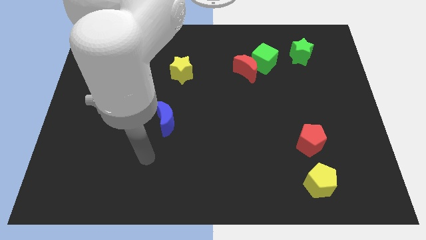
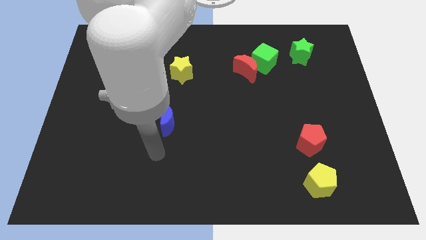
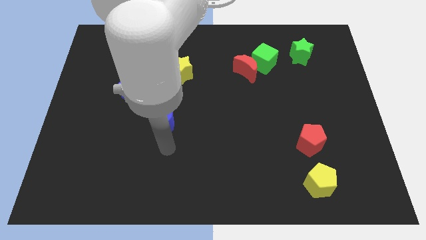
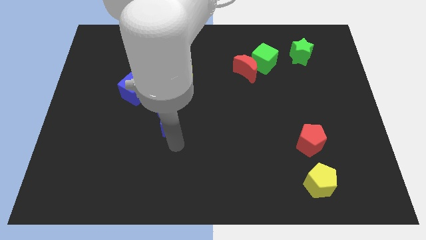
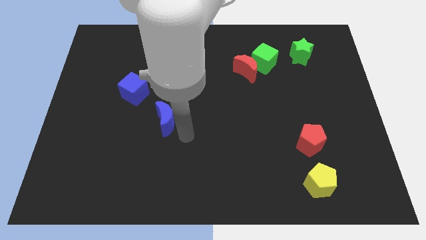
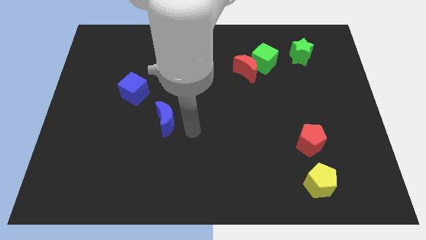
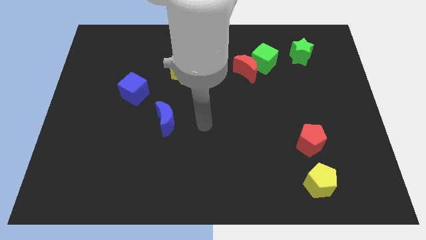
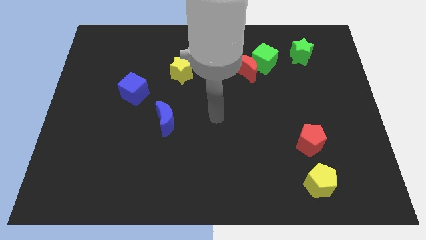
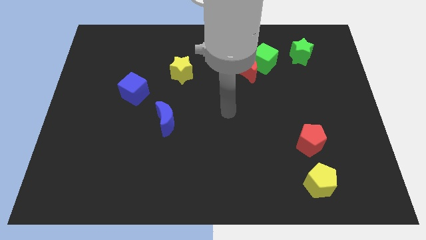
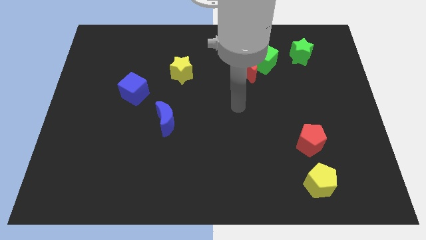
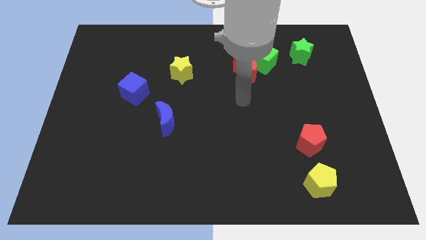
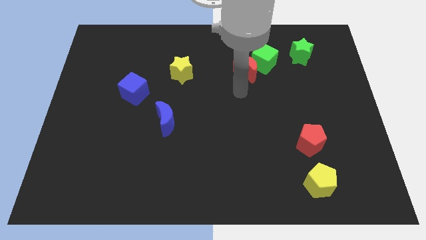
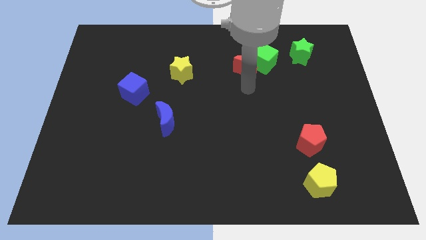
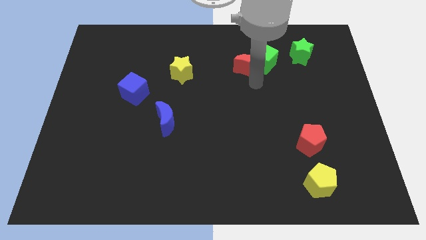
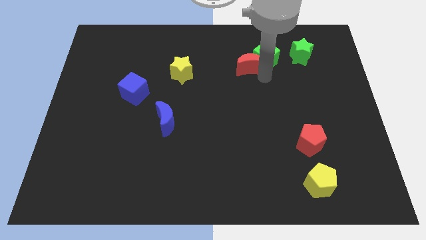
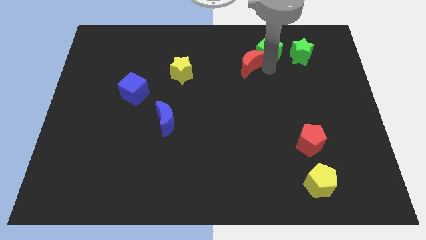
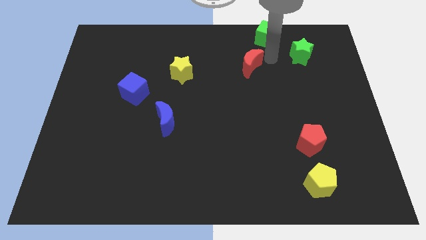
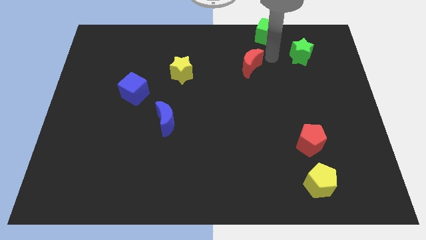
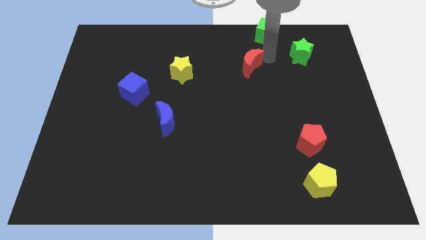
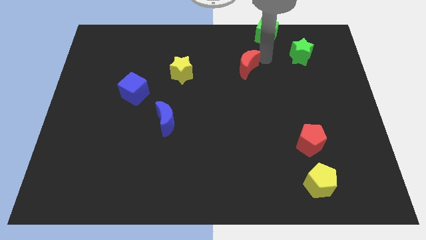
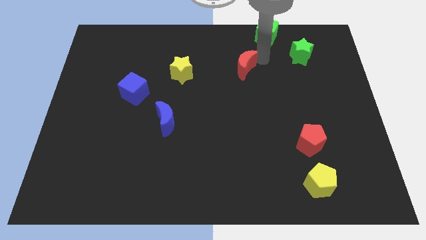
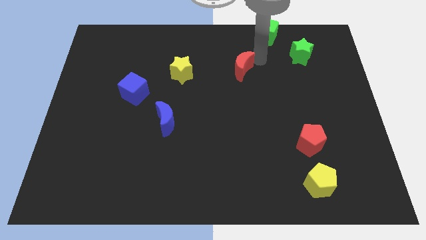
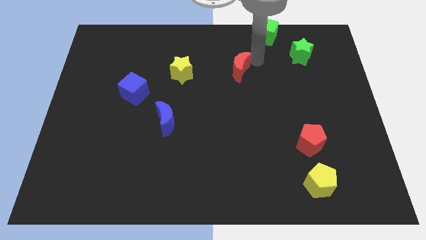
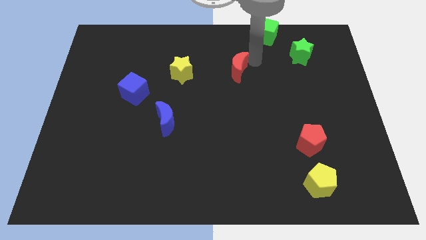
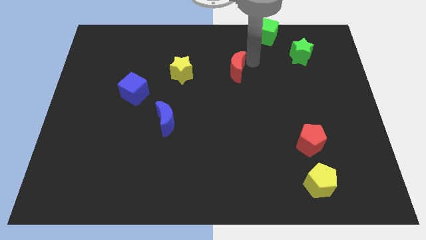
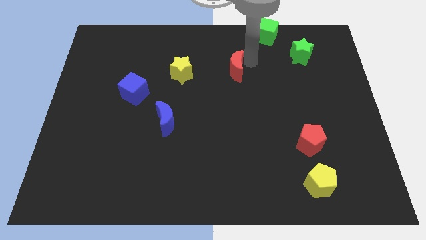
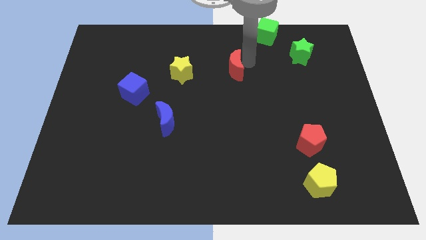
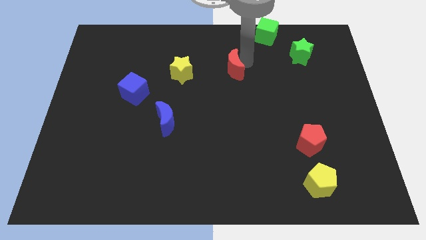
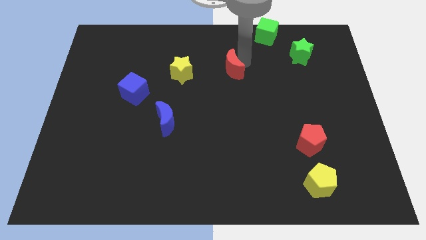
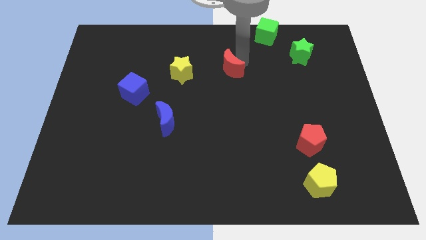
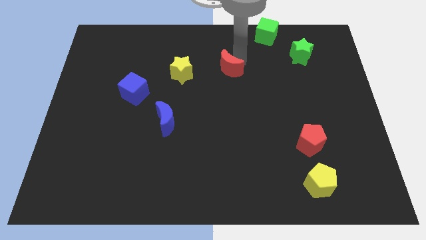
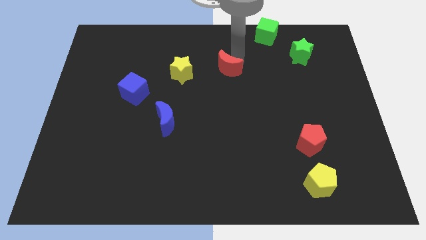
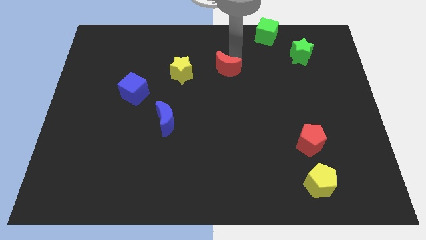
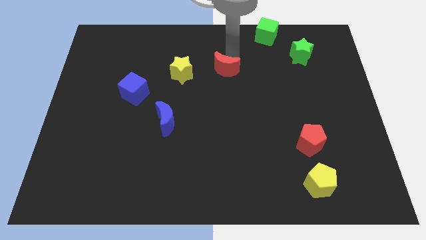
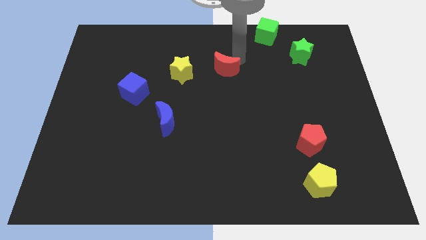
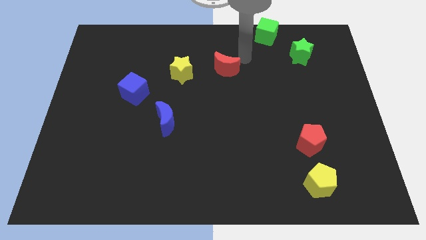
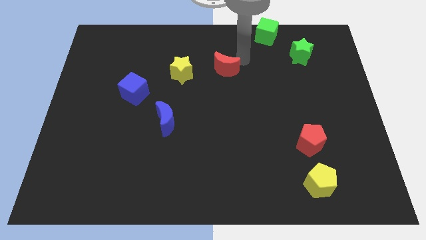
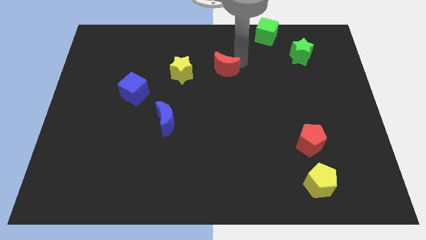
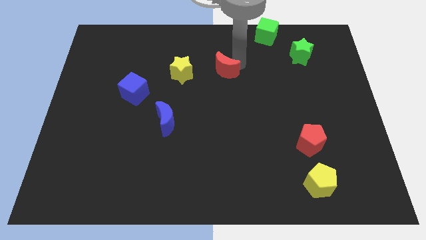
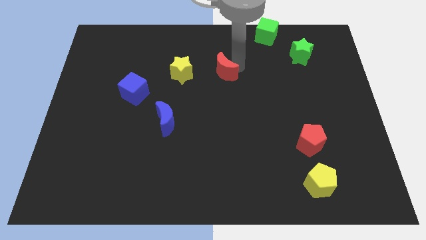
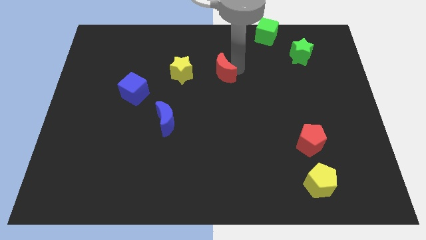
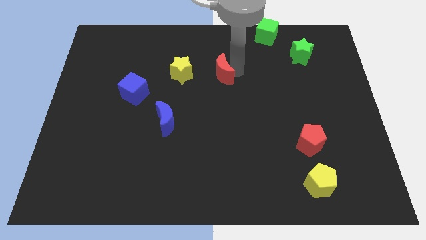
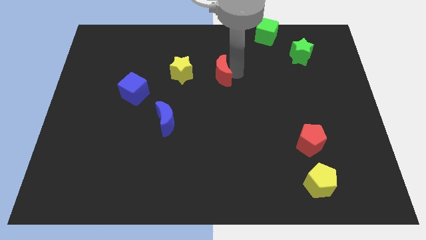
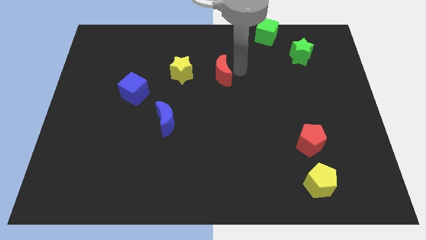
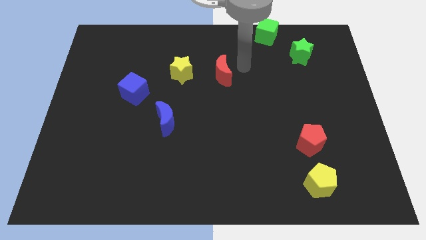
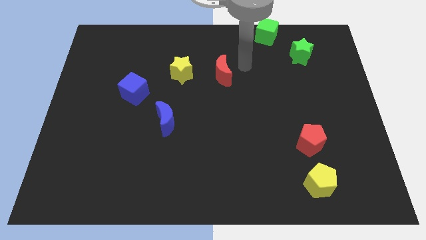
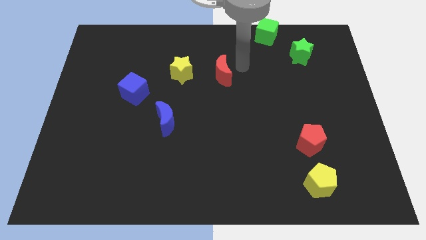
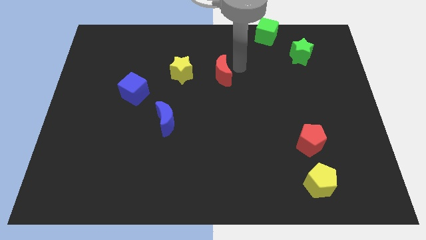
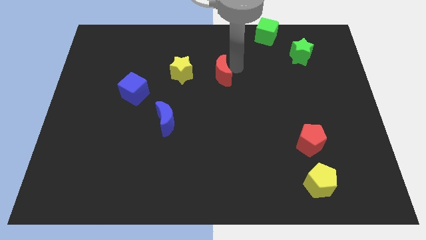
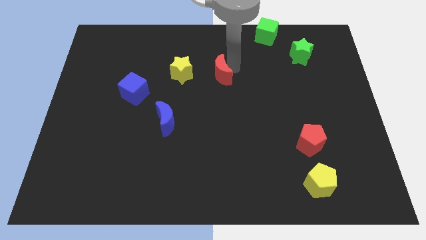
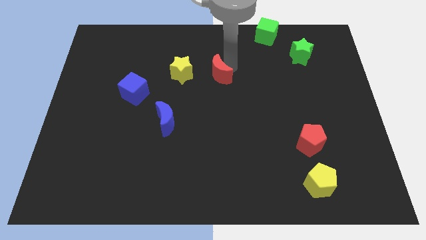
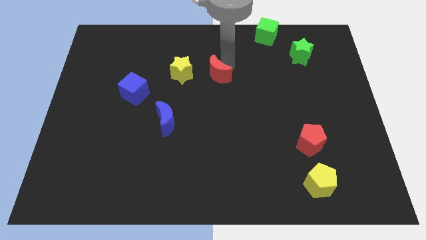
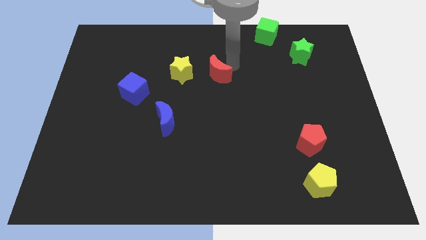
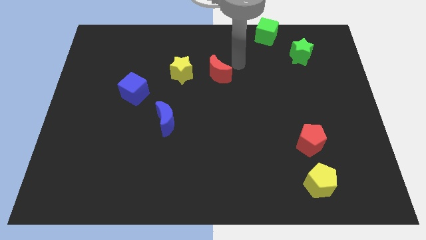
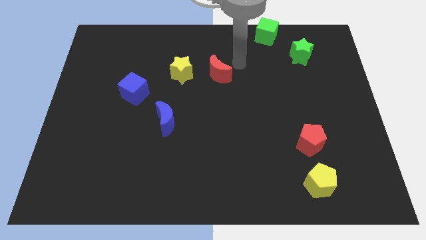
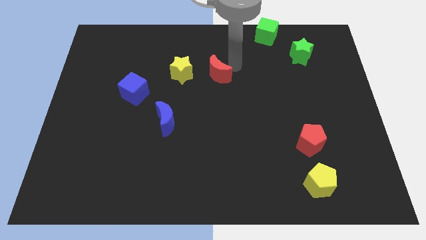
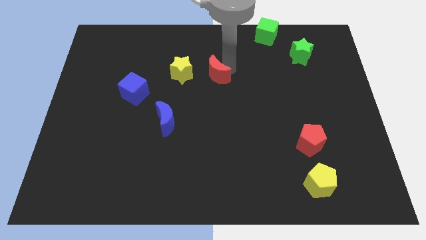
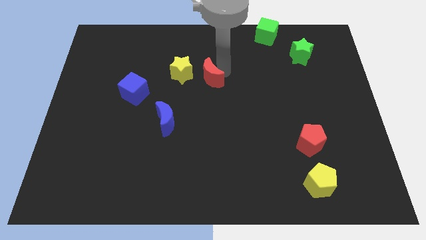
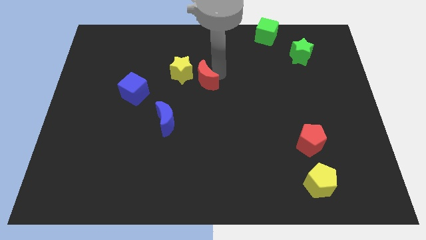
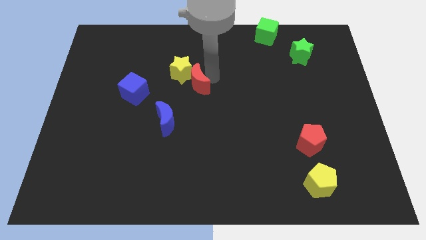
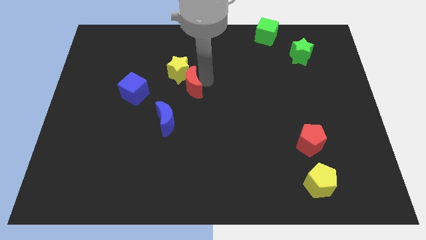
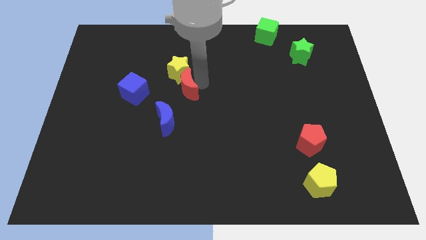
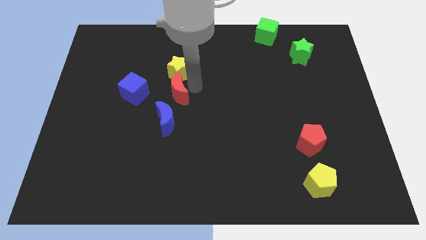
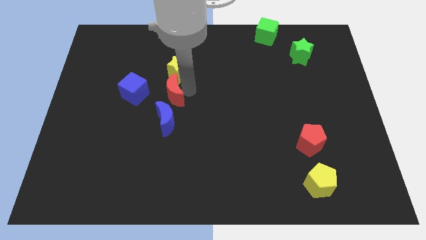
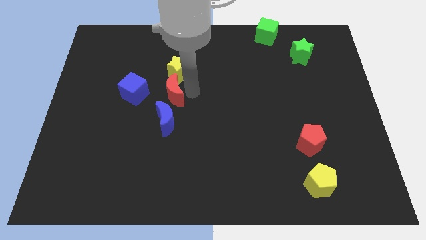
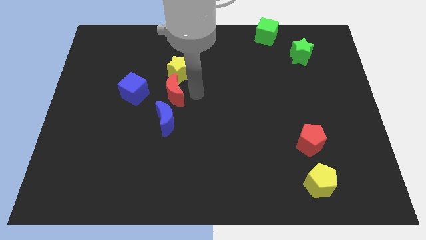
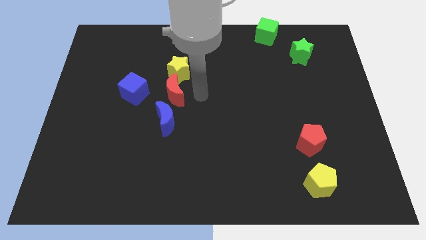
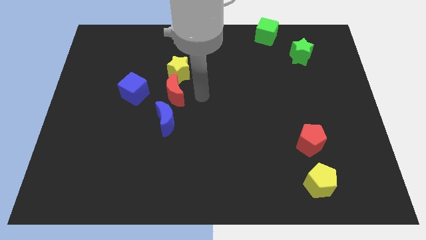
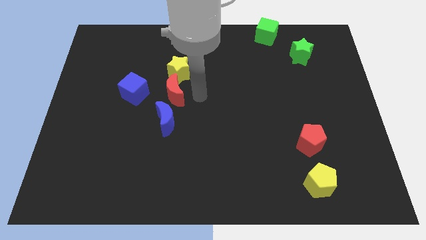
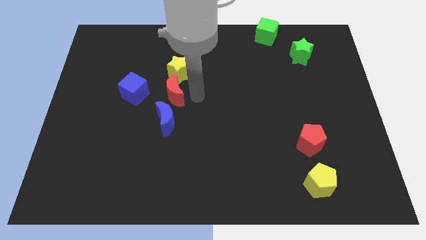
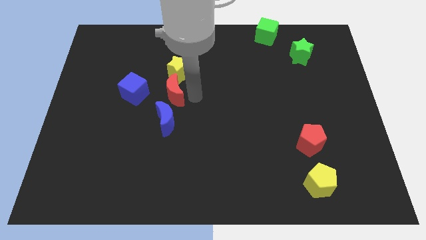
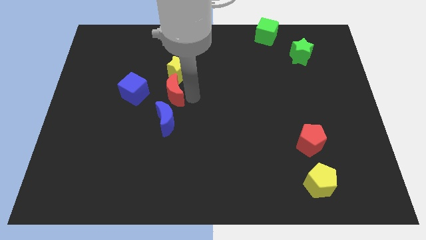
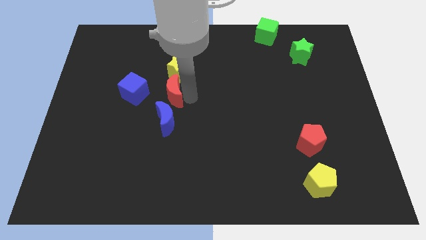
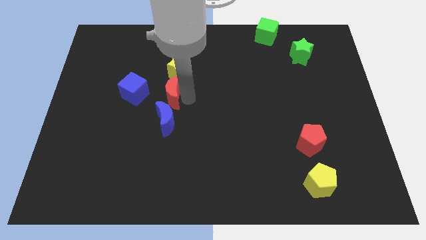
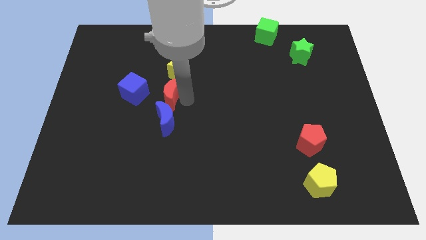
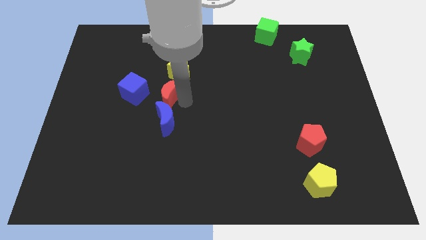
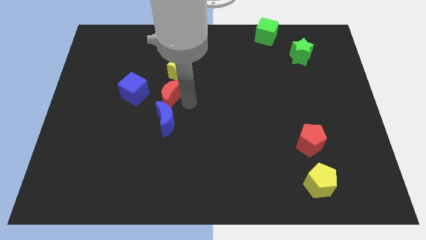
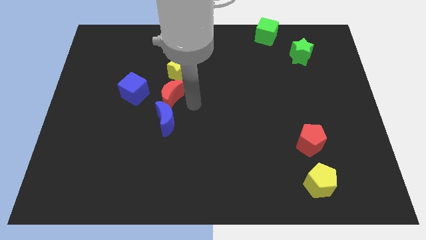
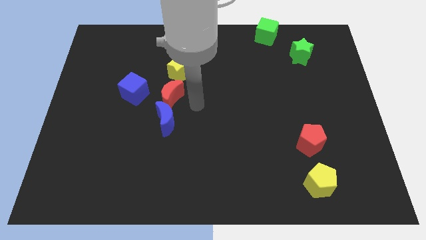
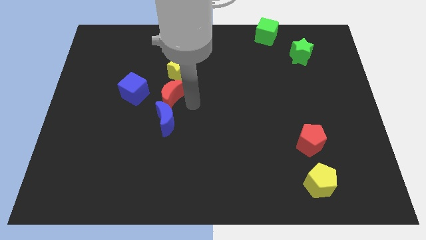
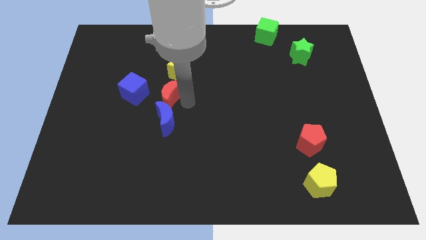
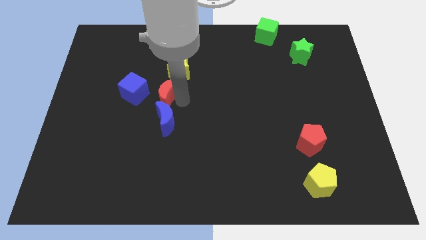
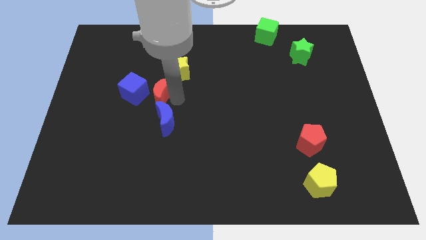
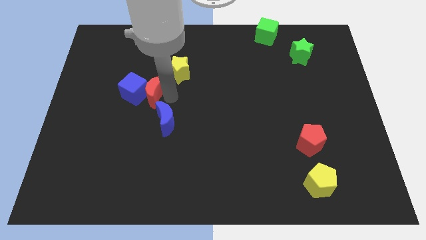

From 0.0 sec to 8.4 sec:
slide the red moon close to the blue cube
